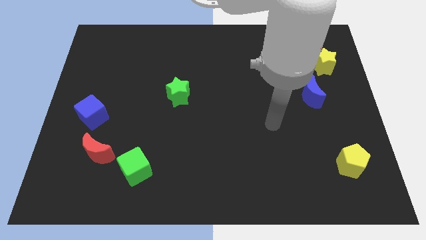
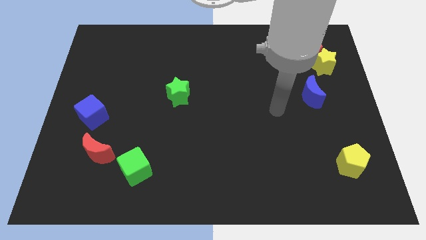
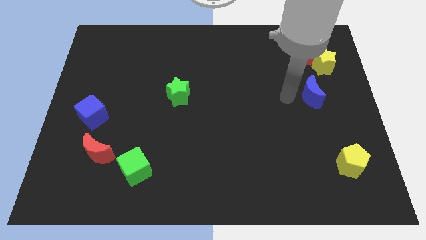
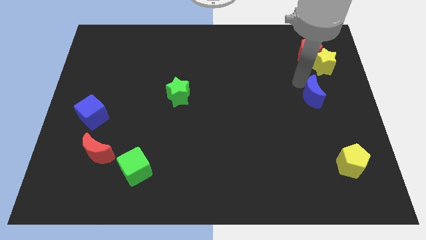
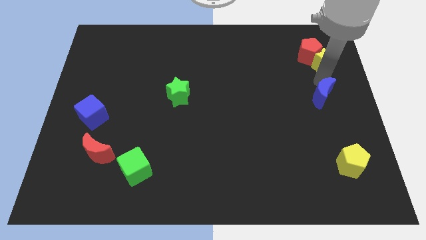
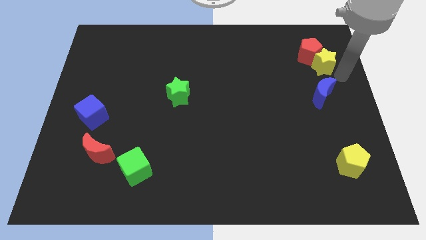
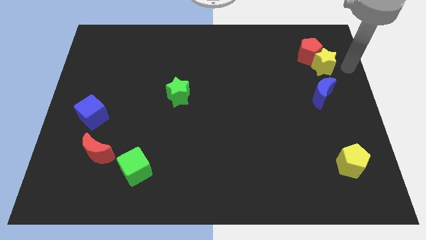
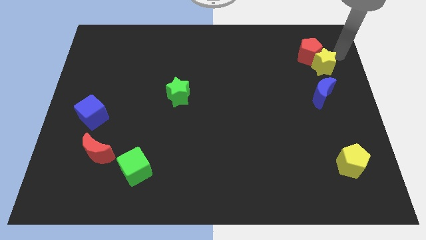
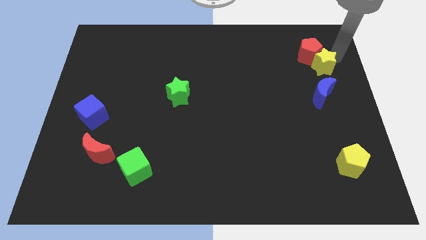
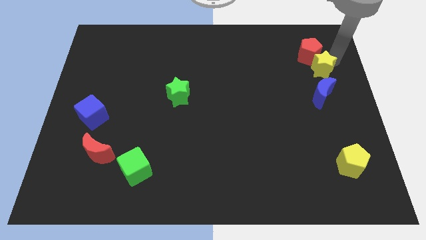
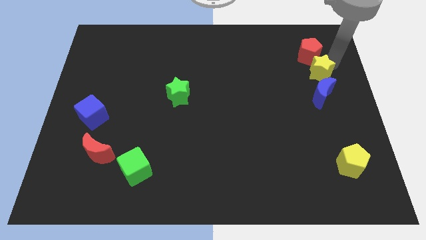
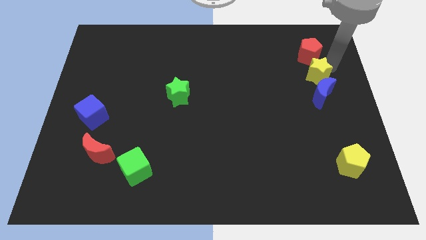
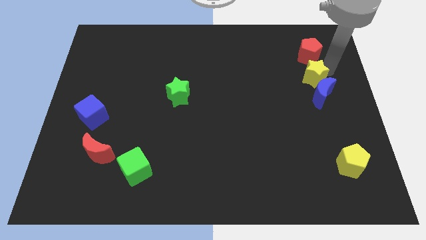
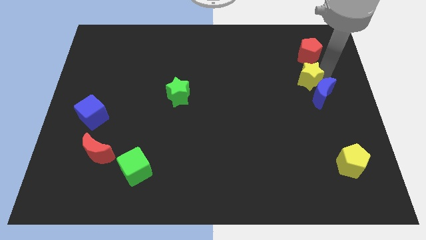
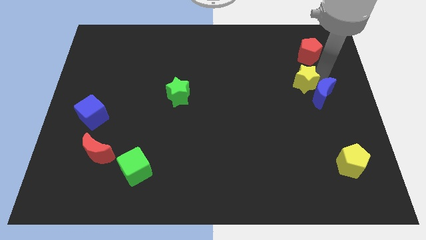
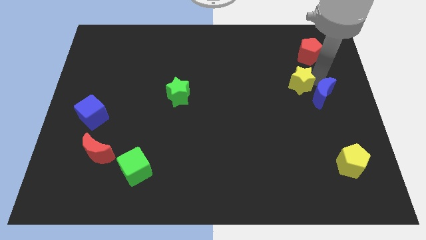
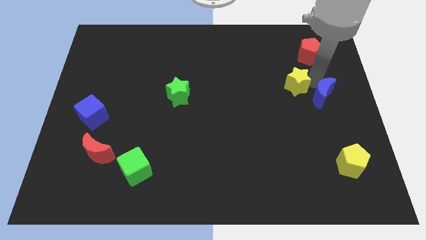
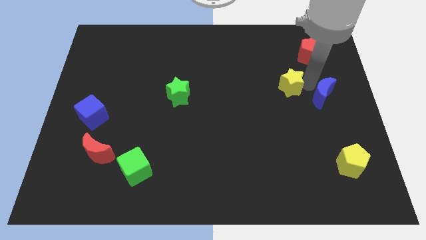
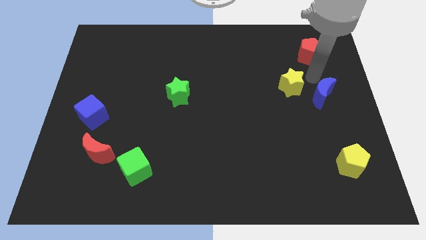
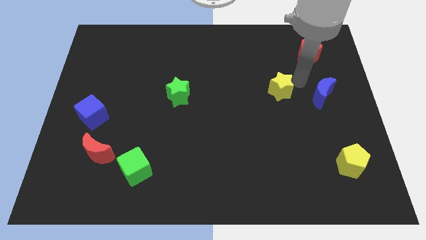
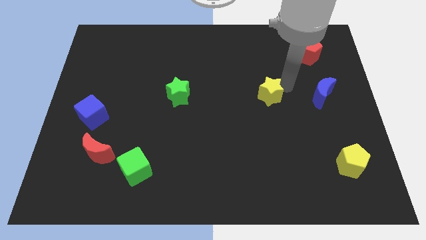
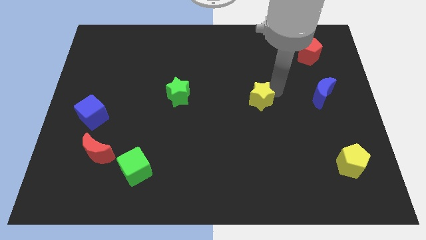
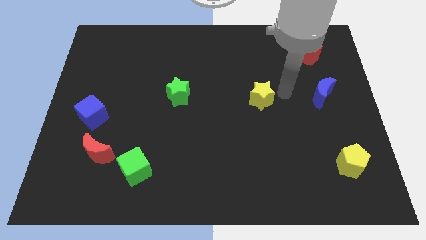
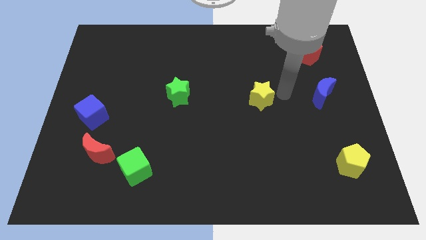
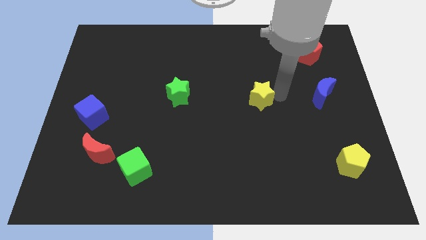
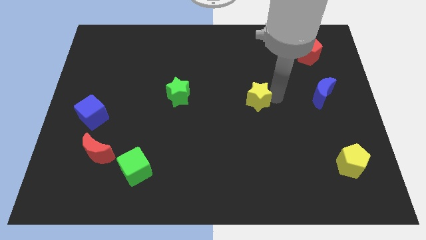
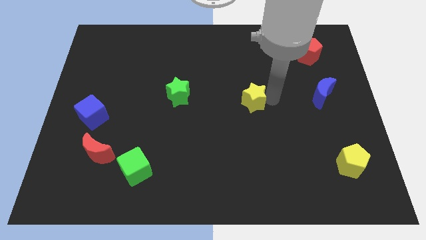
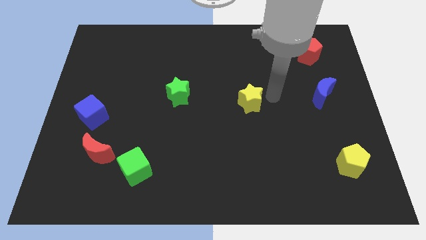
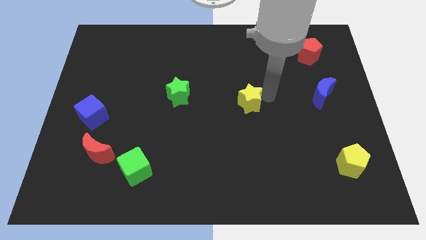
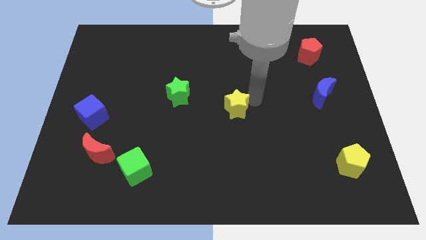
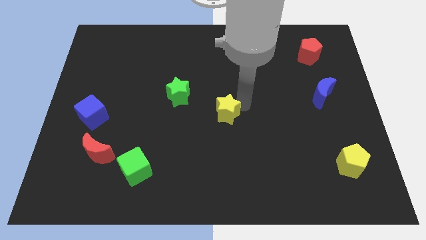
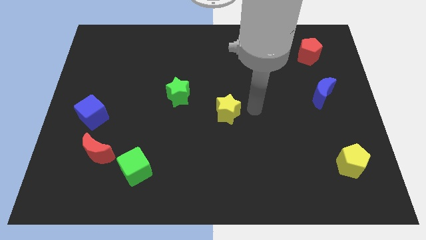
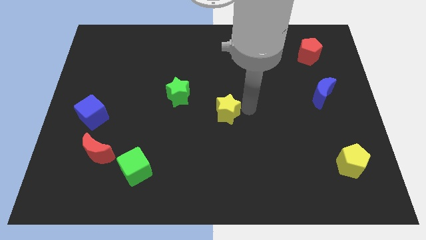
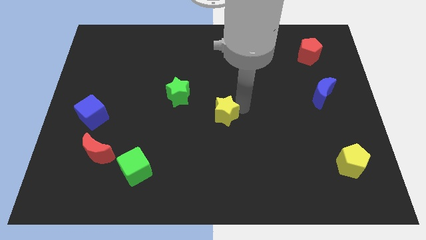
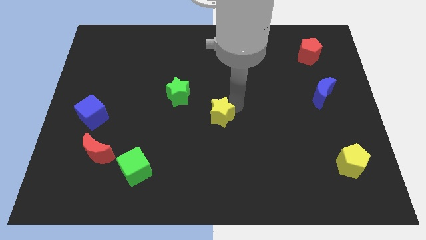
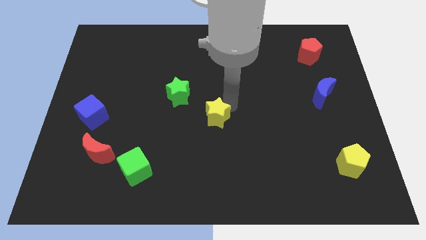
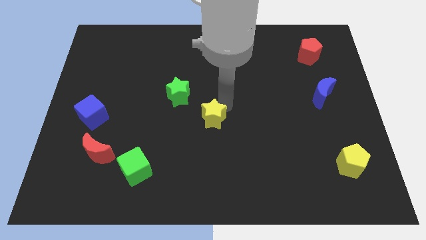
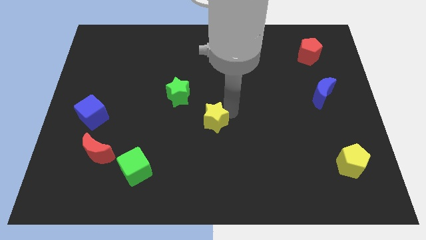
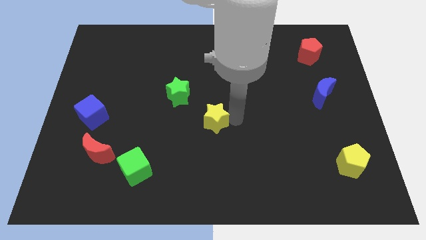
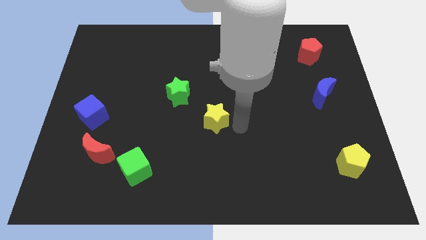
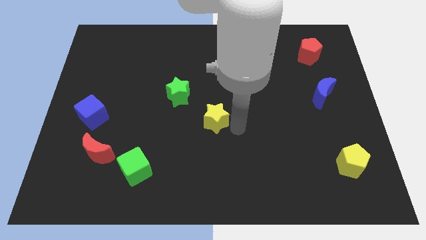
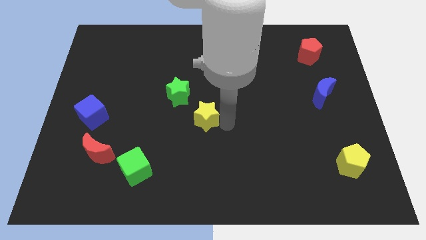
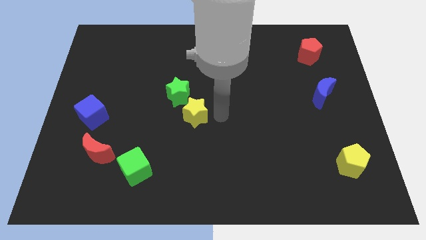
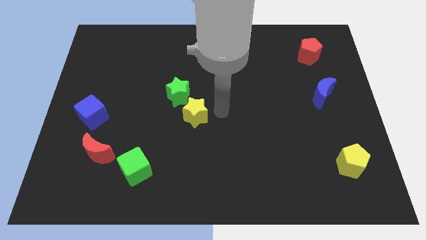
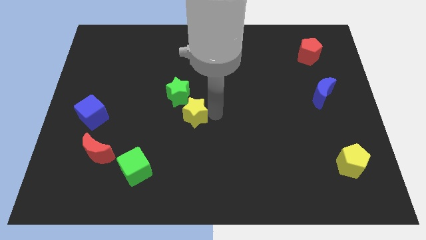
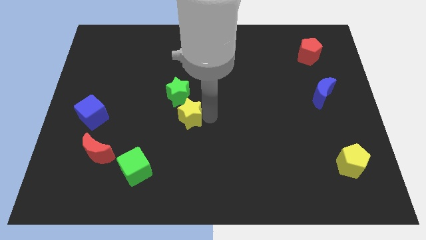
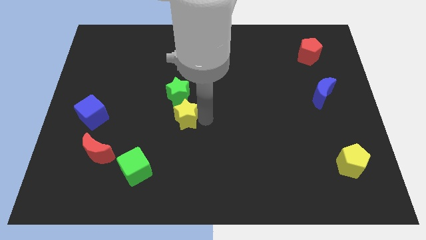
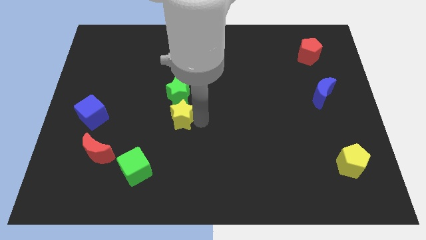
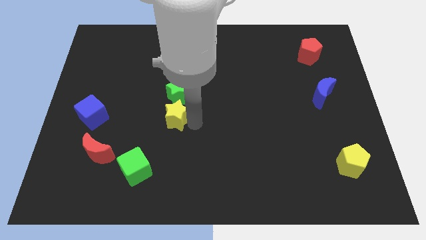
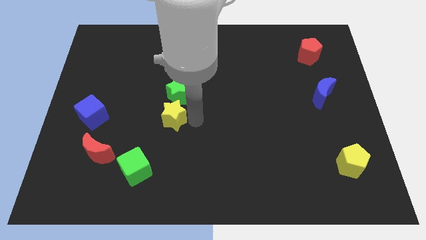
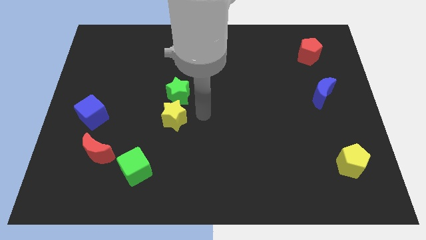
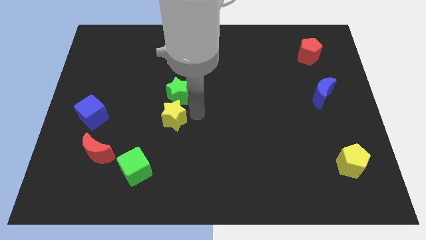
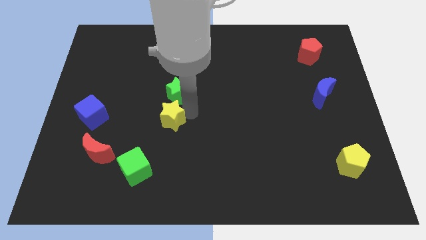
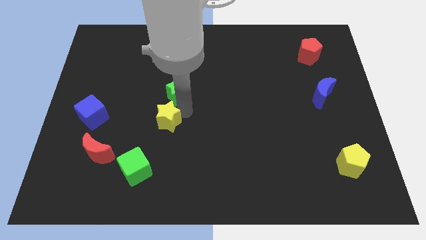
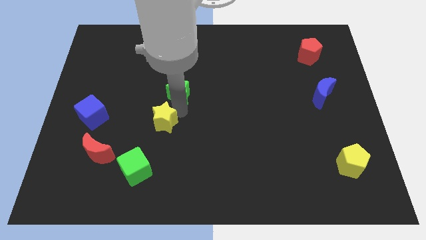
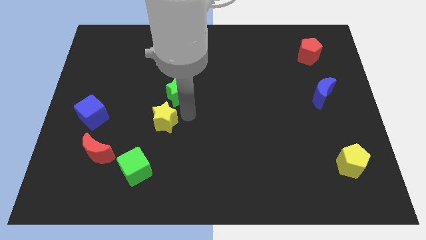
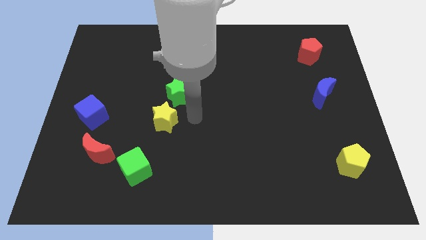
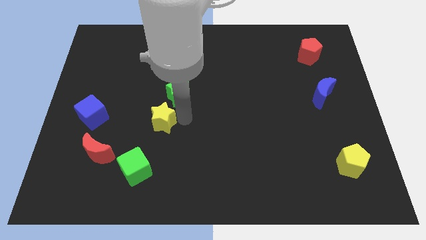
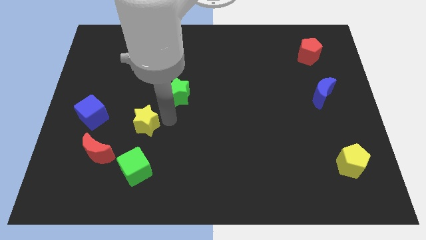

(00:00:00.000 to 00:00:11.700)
slide the yellow star to the top right of the red moon

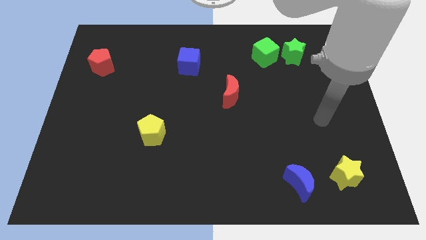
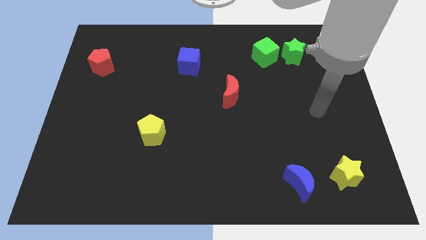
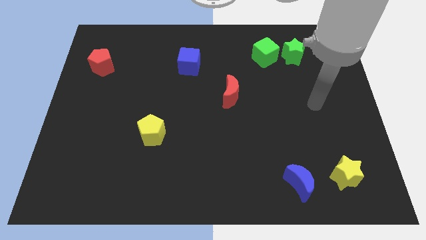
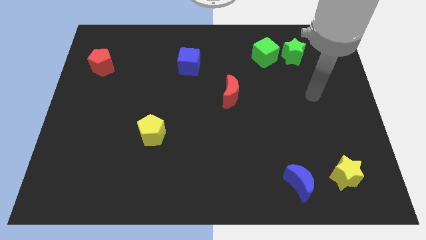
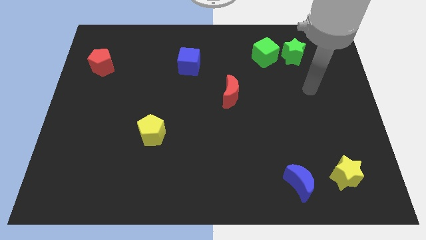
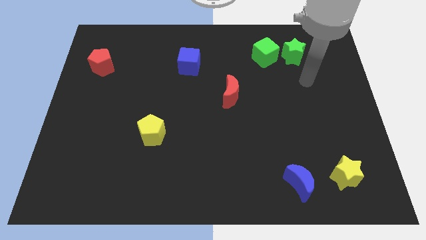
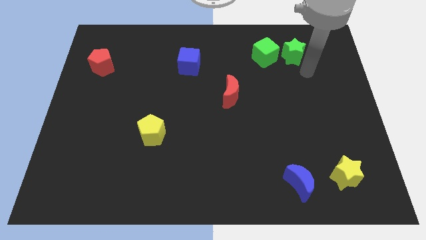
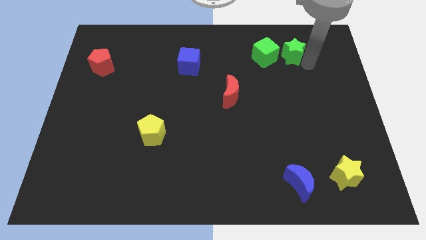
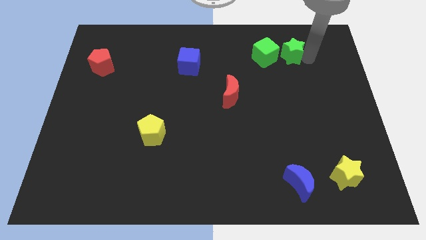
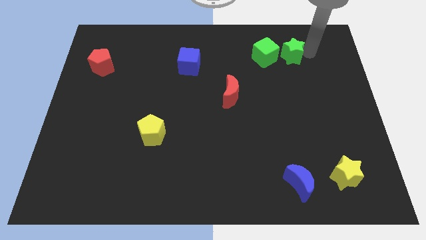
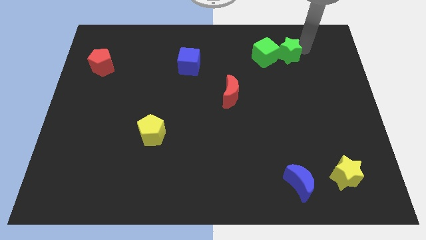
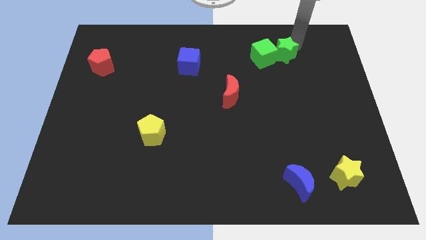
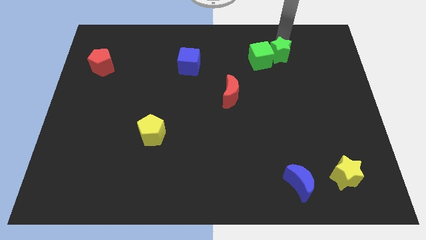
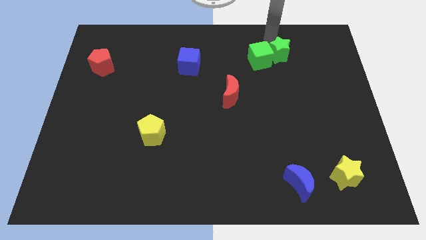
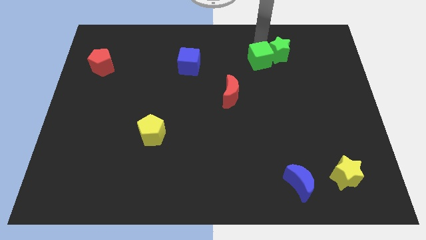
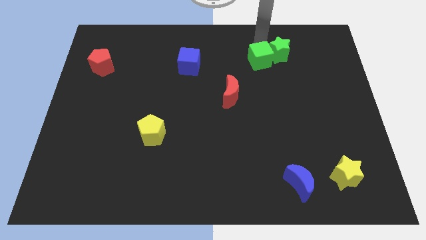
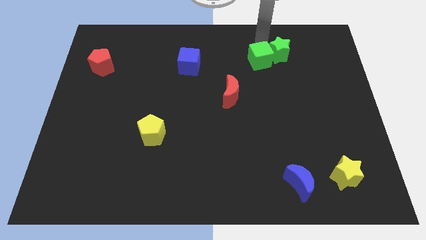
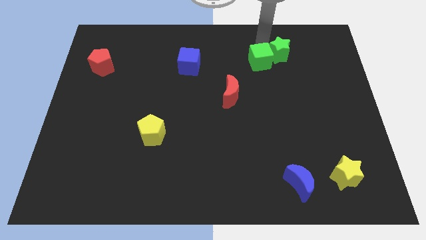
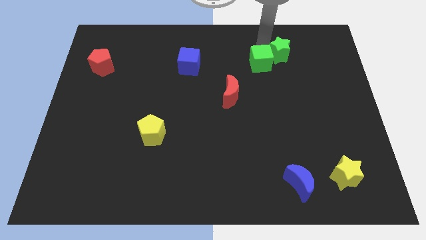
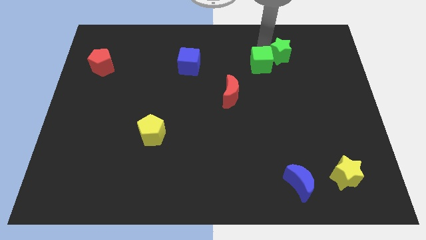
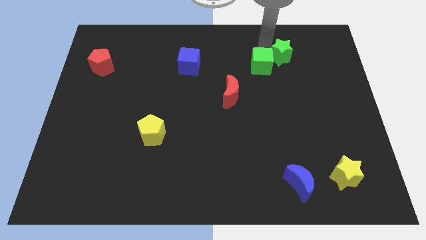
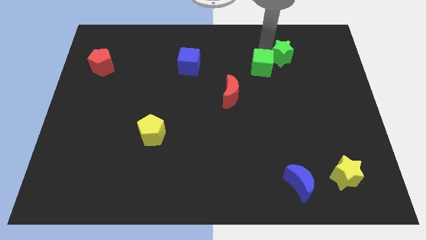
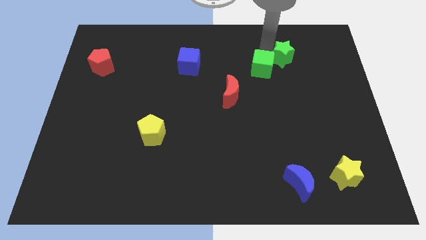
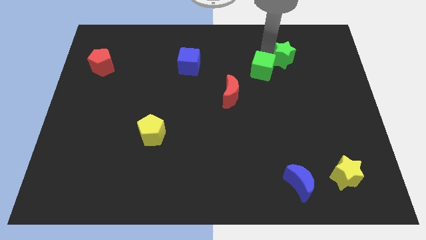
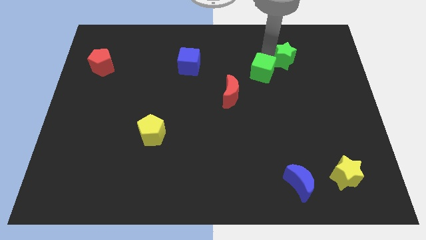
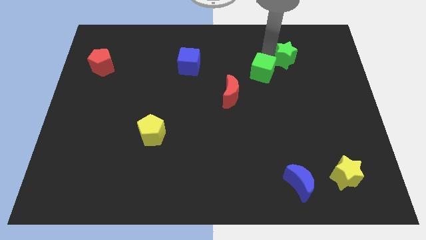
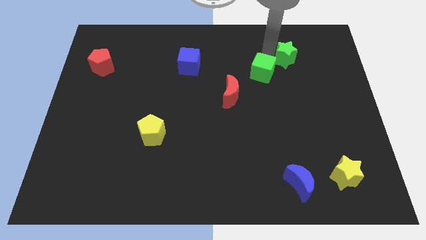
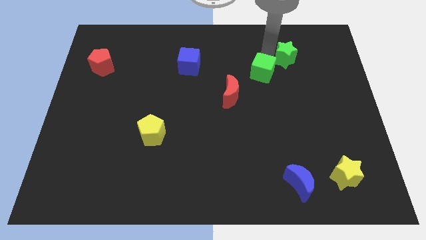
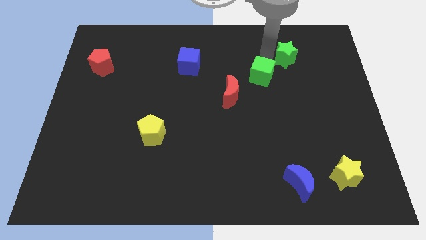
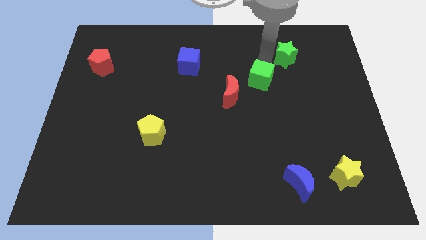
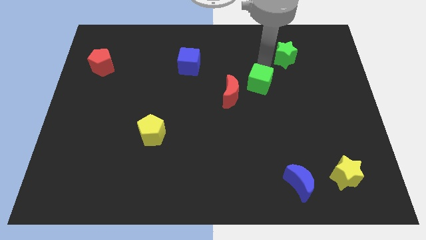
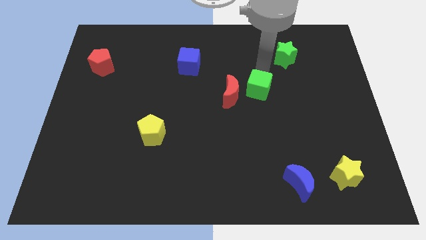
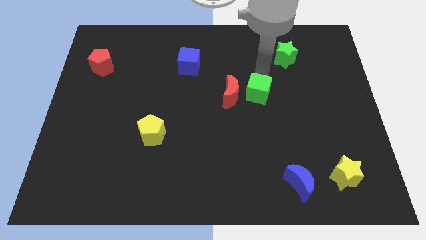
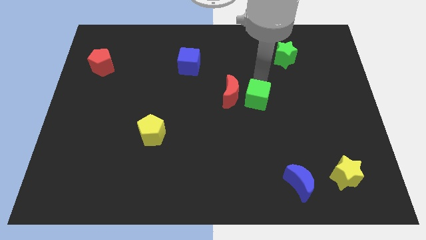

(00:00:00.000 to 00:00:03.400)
push the green cube diagonally down and to the right of the red moon
